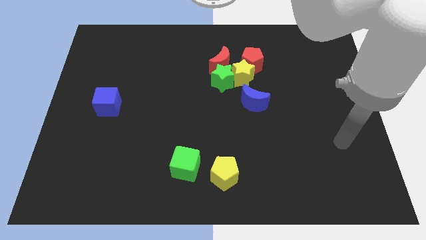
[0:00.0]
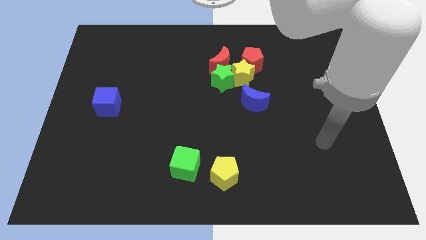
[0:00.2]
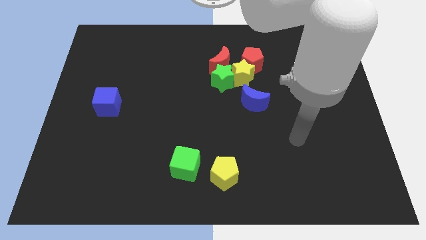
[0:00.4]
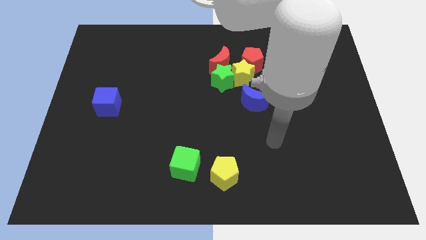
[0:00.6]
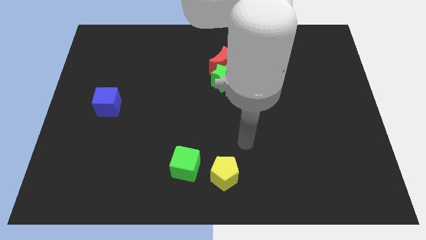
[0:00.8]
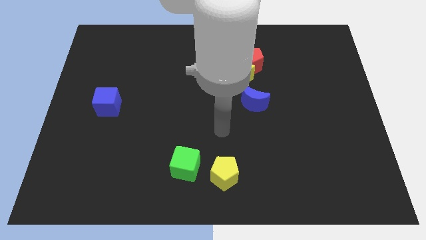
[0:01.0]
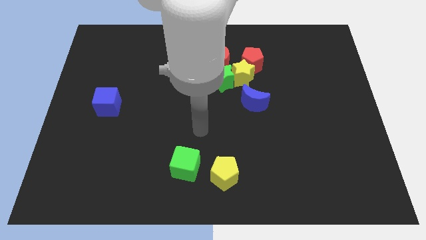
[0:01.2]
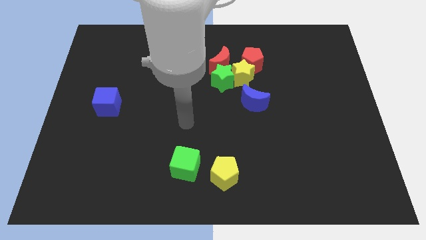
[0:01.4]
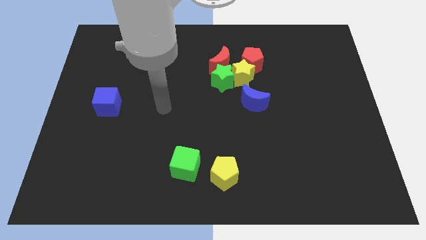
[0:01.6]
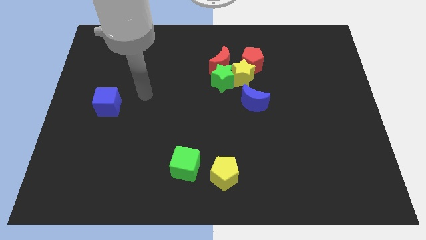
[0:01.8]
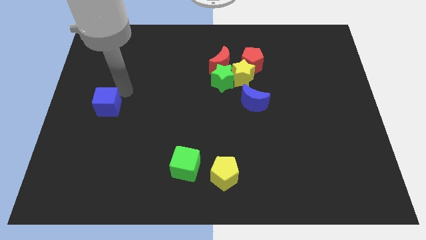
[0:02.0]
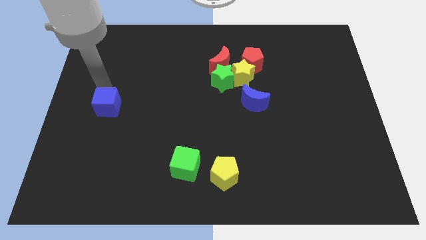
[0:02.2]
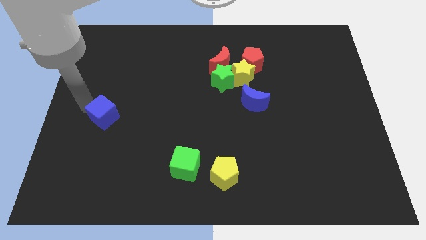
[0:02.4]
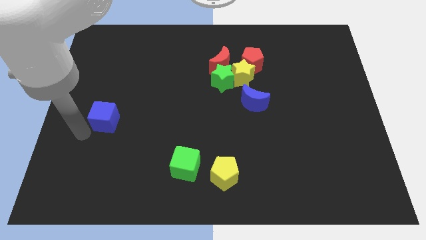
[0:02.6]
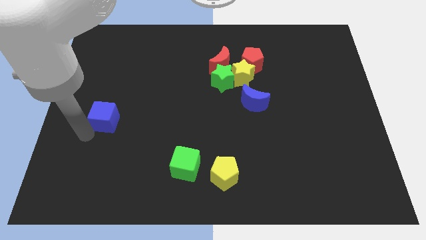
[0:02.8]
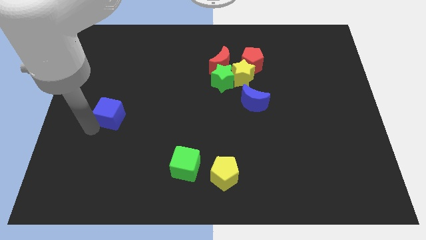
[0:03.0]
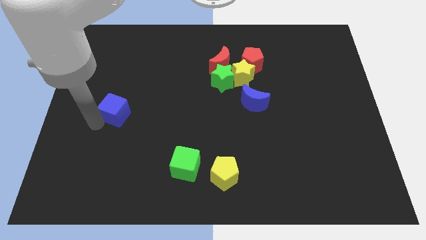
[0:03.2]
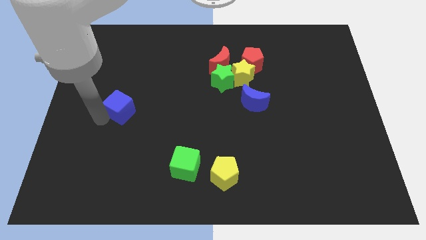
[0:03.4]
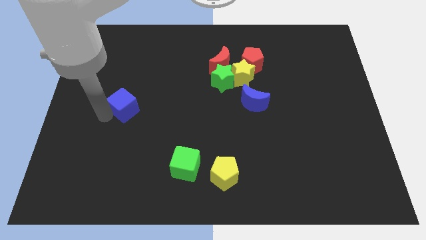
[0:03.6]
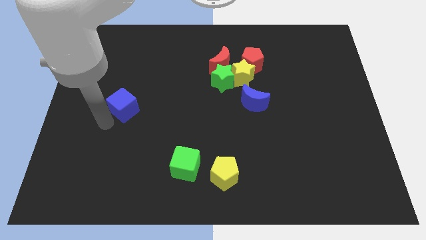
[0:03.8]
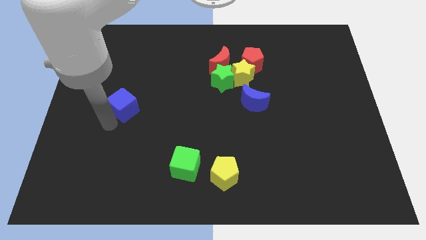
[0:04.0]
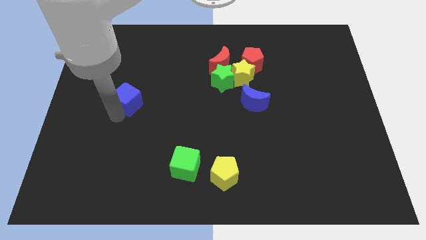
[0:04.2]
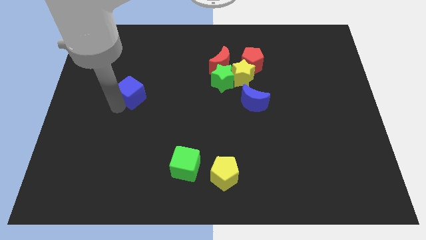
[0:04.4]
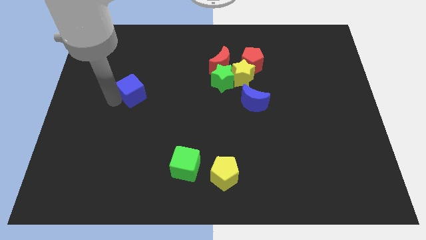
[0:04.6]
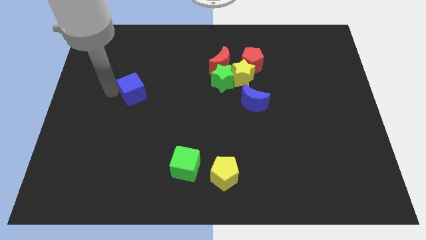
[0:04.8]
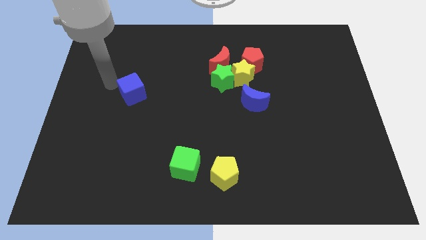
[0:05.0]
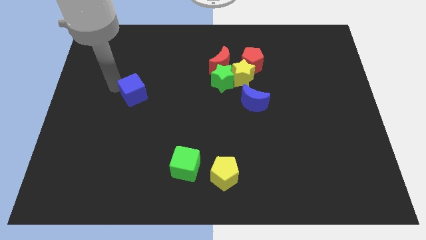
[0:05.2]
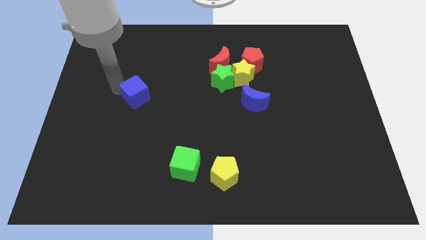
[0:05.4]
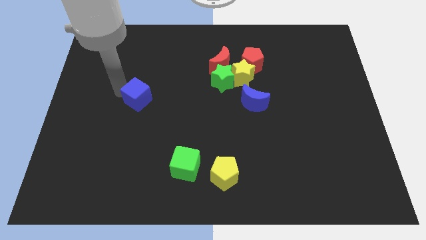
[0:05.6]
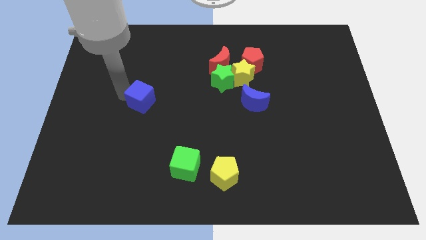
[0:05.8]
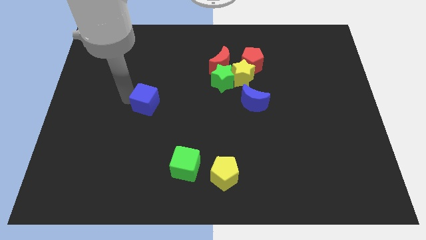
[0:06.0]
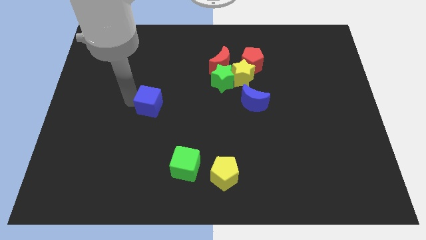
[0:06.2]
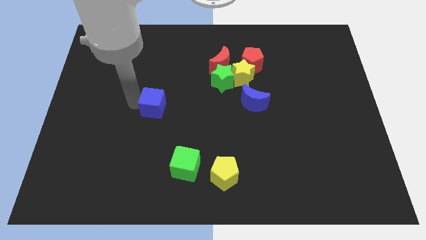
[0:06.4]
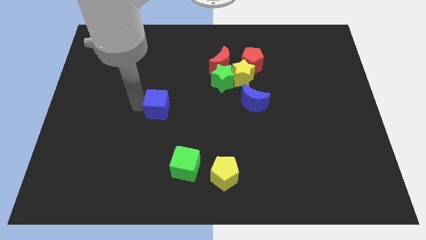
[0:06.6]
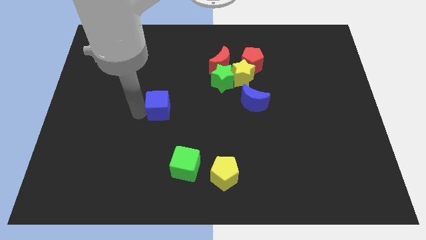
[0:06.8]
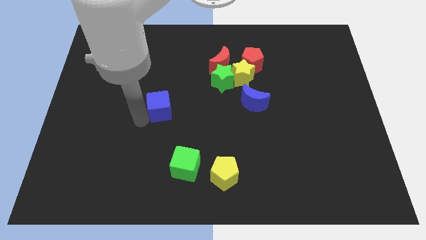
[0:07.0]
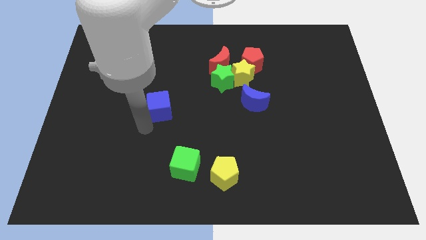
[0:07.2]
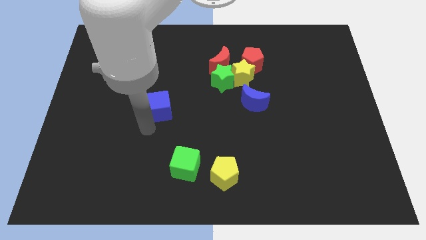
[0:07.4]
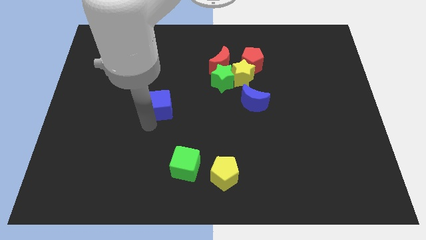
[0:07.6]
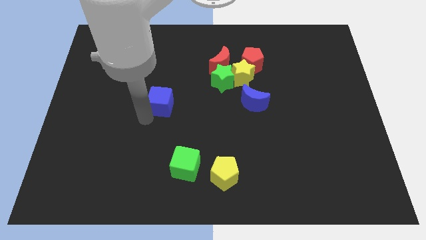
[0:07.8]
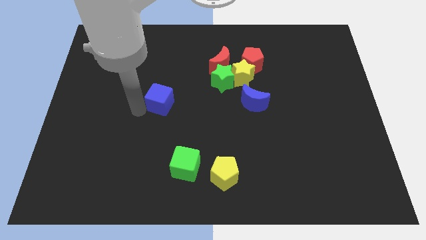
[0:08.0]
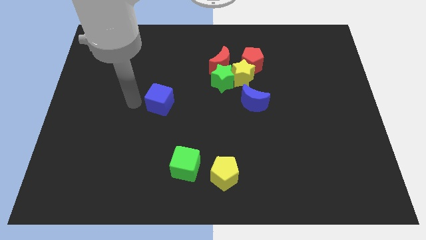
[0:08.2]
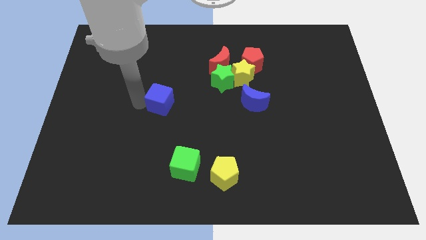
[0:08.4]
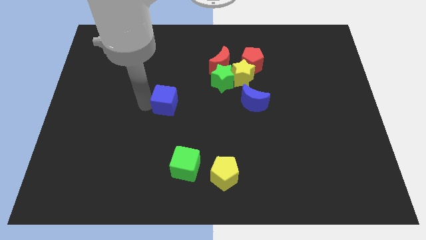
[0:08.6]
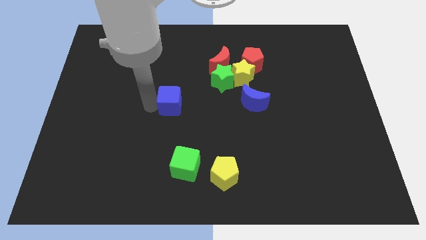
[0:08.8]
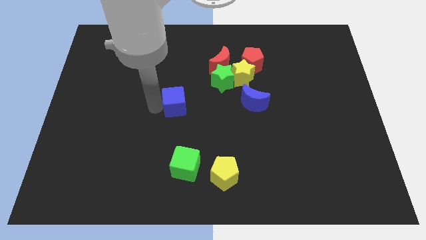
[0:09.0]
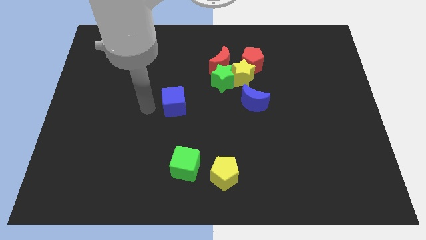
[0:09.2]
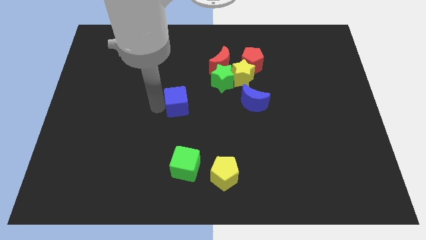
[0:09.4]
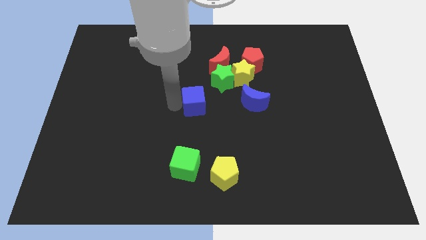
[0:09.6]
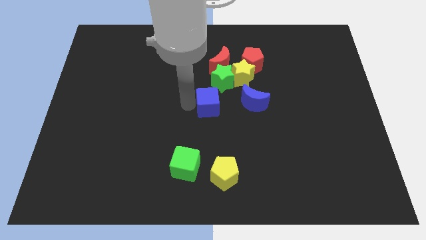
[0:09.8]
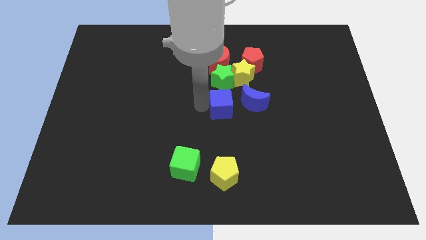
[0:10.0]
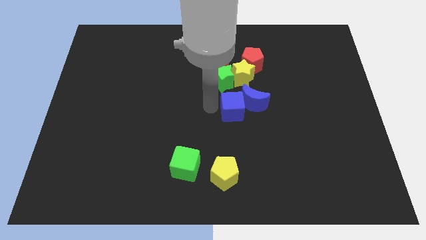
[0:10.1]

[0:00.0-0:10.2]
push the blue cube towards the blue moon

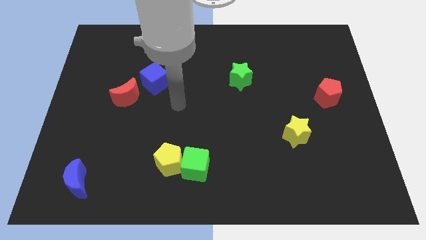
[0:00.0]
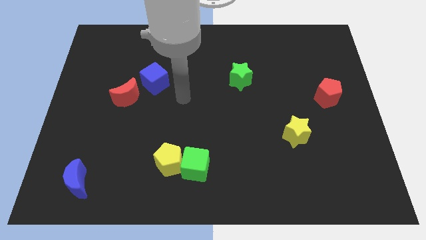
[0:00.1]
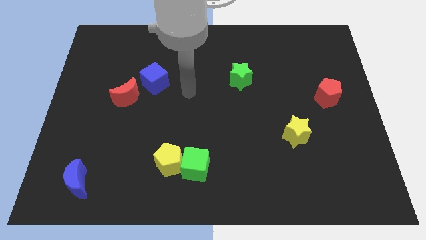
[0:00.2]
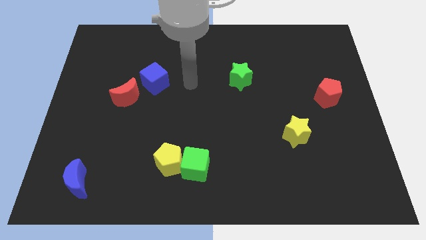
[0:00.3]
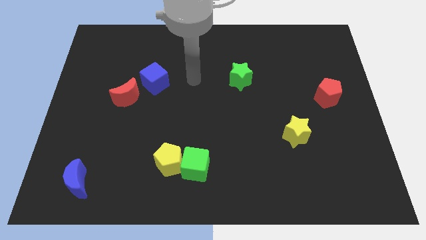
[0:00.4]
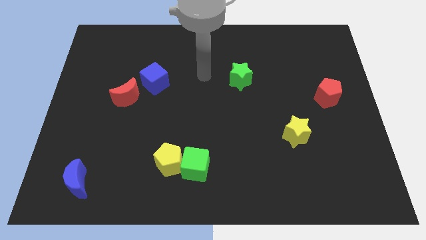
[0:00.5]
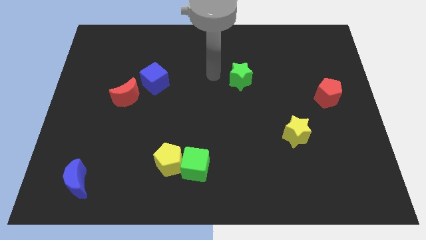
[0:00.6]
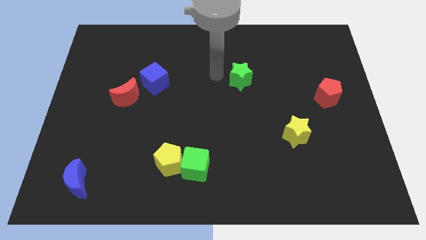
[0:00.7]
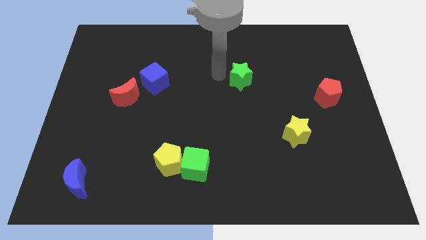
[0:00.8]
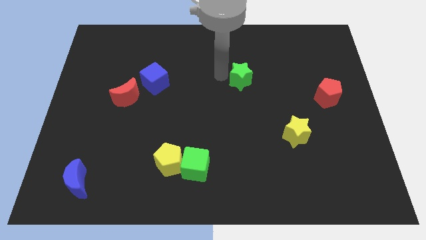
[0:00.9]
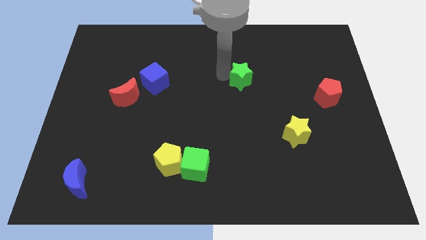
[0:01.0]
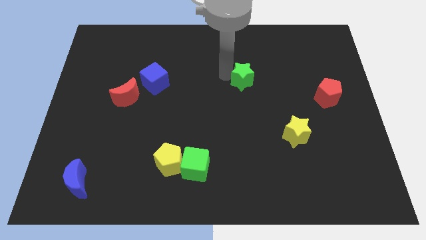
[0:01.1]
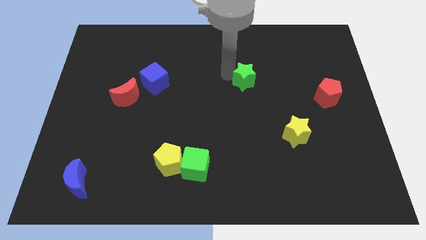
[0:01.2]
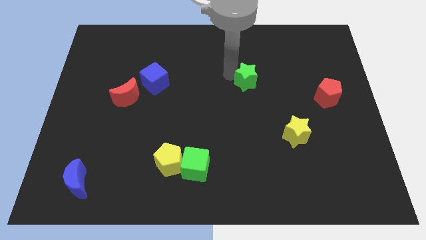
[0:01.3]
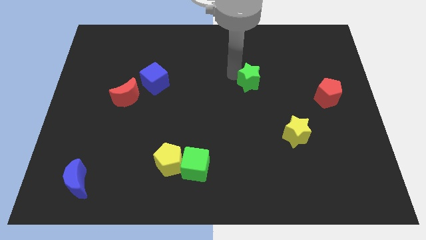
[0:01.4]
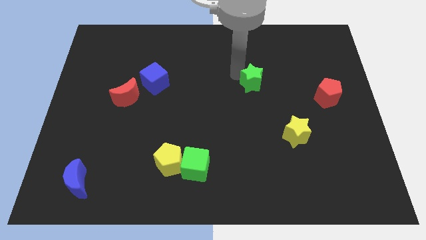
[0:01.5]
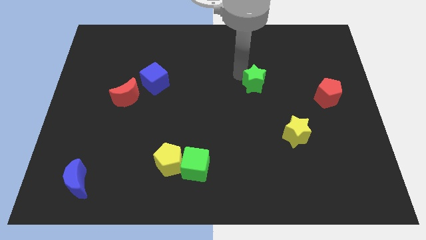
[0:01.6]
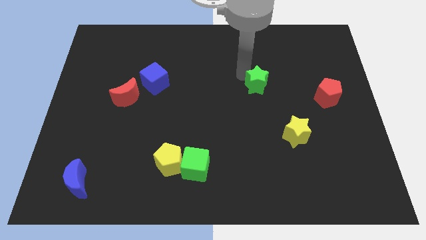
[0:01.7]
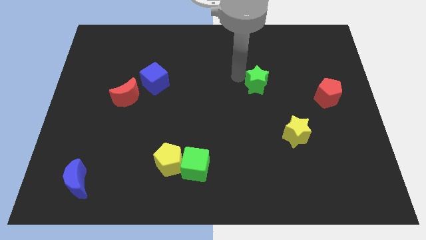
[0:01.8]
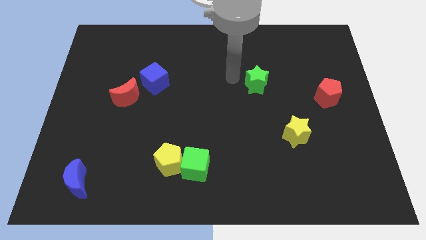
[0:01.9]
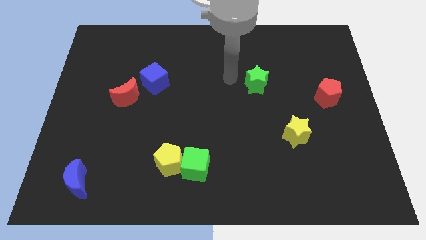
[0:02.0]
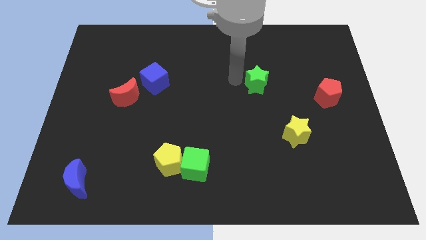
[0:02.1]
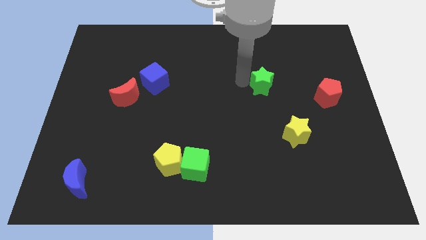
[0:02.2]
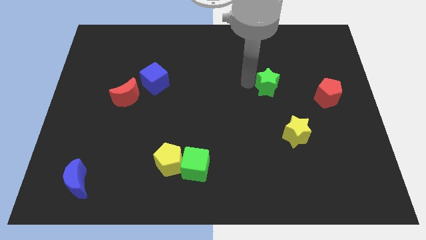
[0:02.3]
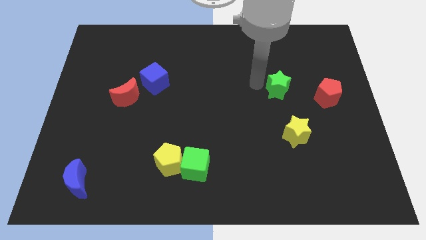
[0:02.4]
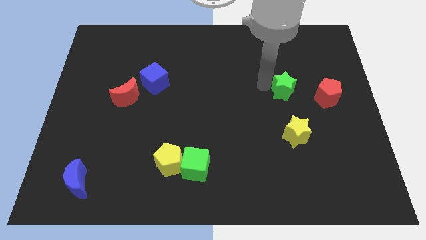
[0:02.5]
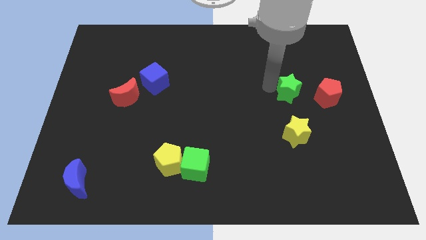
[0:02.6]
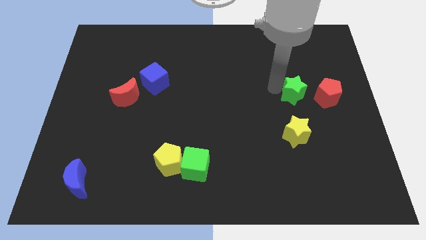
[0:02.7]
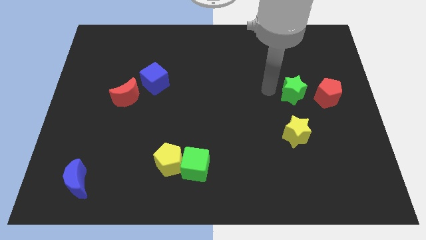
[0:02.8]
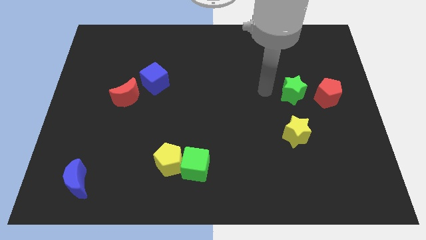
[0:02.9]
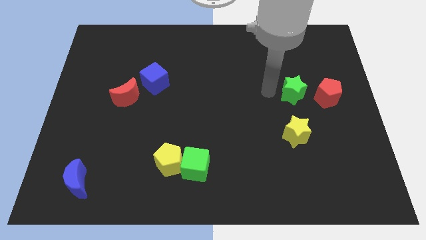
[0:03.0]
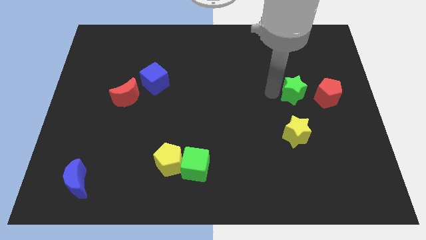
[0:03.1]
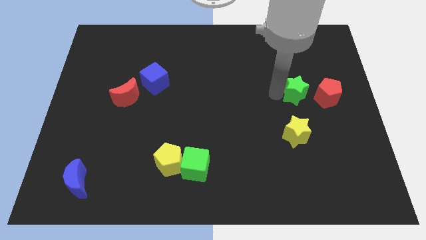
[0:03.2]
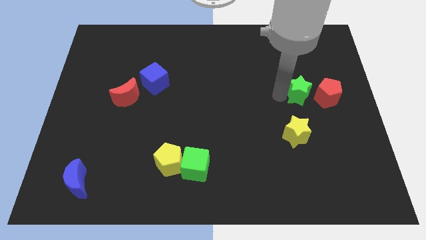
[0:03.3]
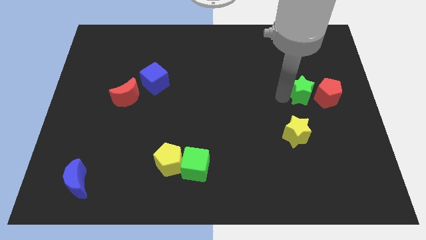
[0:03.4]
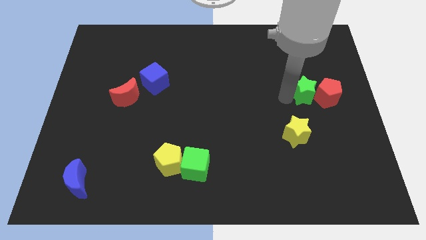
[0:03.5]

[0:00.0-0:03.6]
move the green star to the red pentagon
